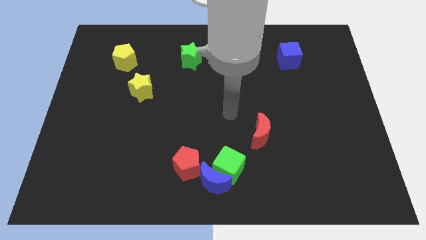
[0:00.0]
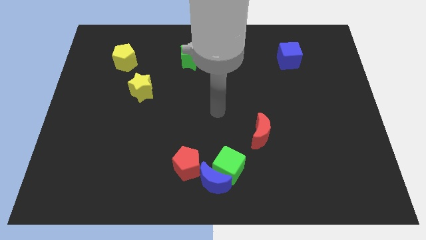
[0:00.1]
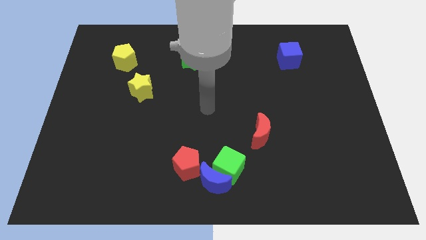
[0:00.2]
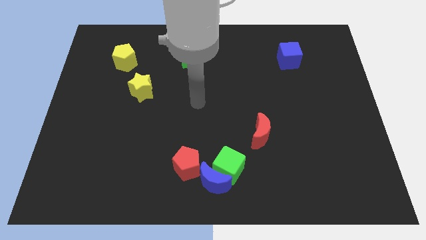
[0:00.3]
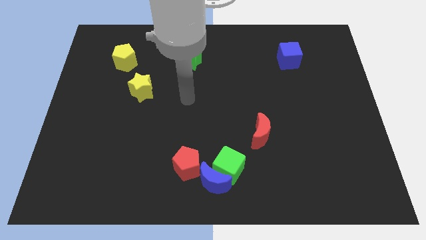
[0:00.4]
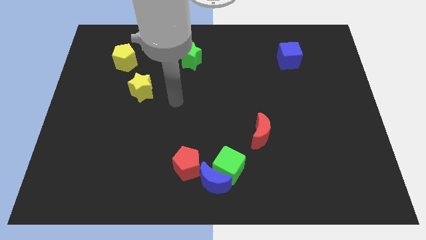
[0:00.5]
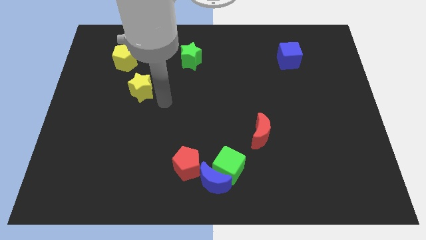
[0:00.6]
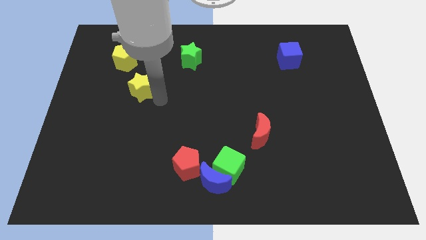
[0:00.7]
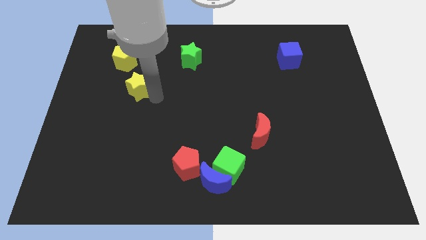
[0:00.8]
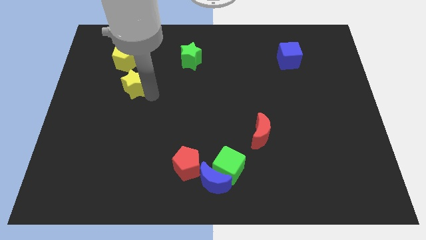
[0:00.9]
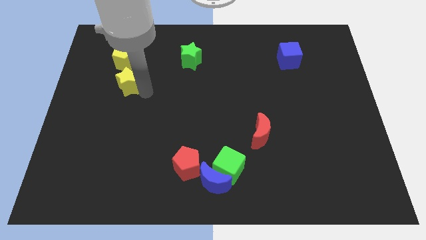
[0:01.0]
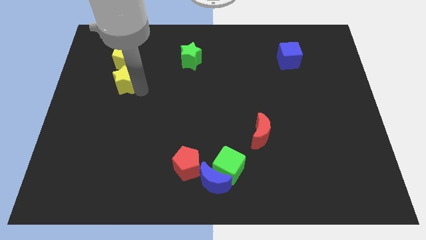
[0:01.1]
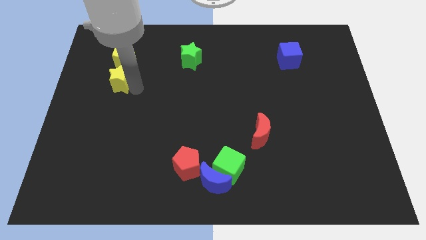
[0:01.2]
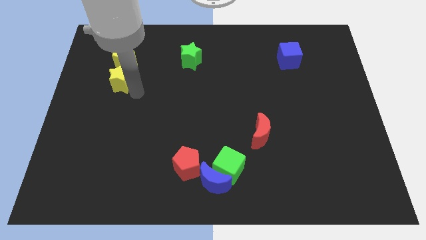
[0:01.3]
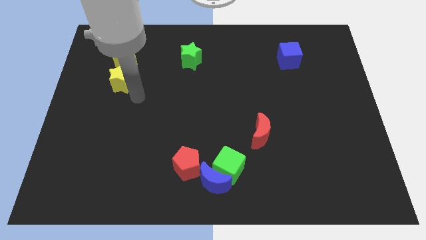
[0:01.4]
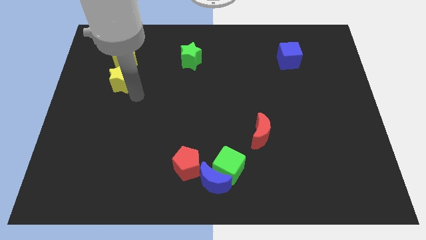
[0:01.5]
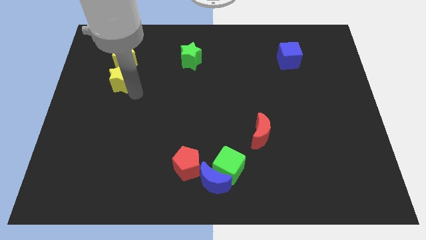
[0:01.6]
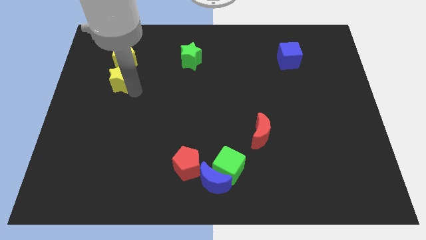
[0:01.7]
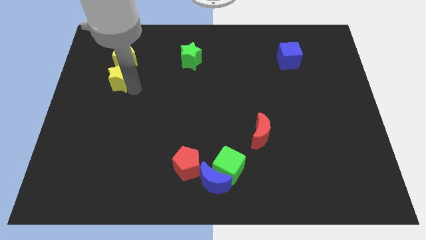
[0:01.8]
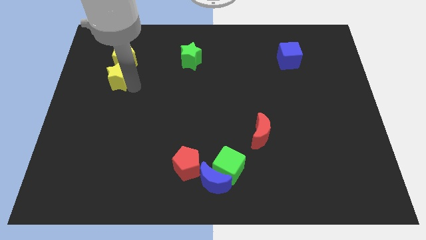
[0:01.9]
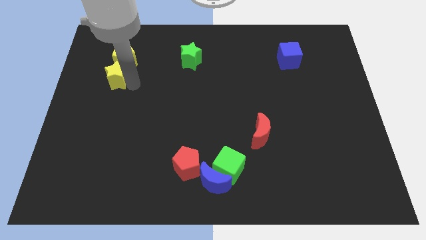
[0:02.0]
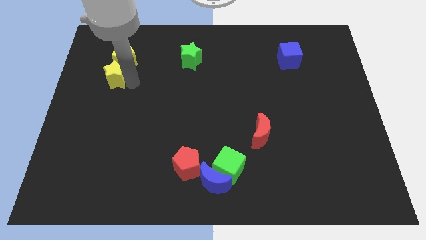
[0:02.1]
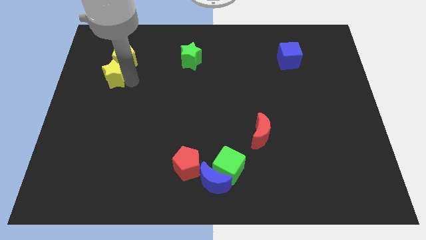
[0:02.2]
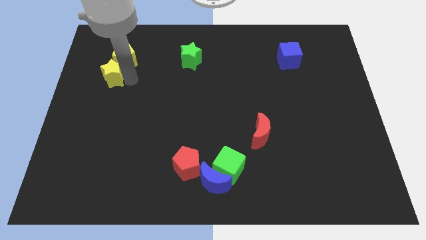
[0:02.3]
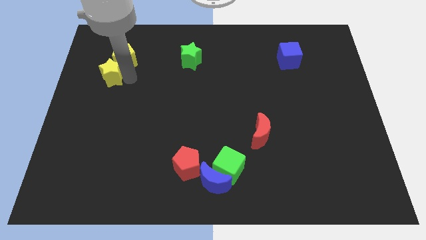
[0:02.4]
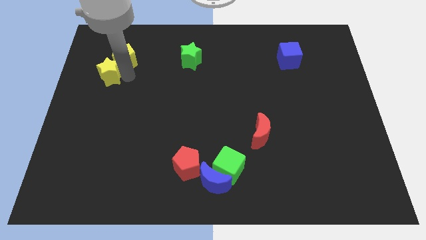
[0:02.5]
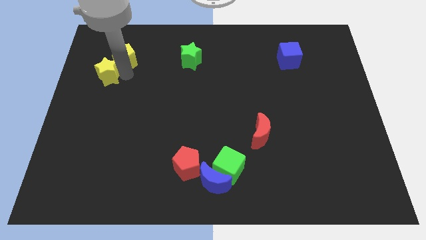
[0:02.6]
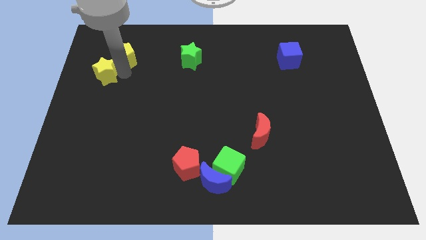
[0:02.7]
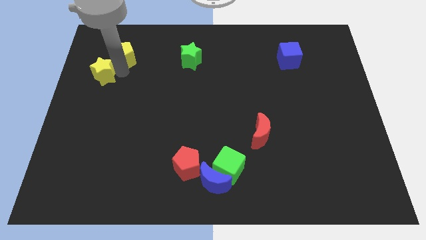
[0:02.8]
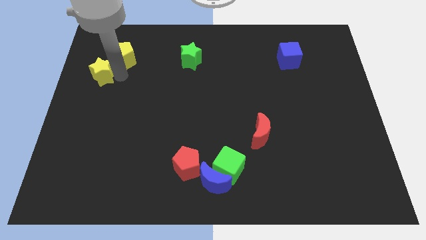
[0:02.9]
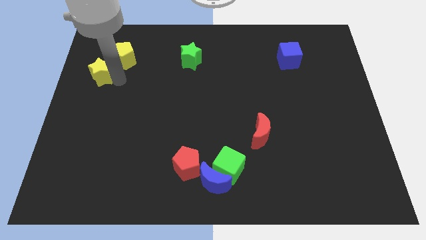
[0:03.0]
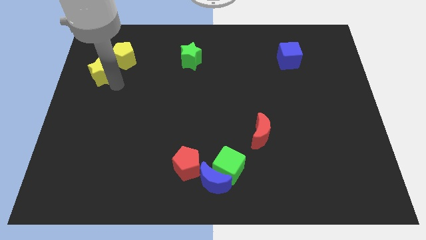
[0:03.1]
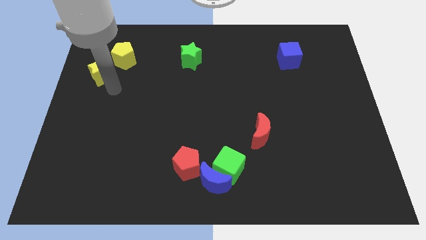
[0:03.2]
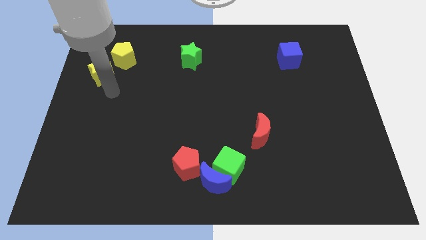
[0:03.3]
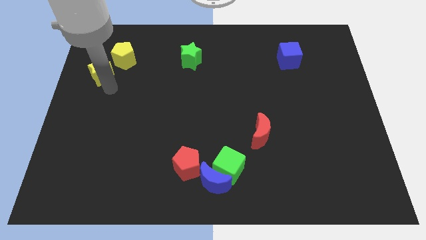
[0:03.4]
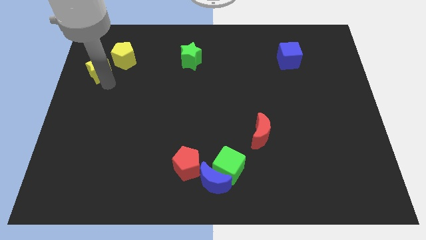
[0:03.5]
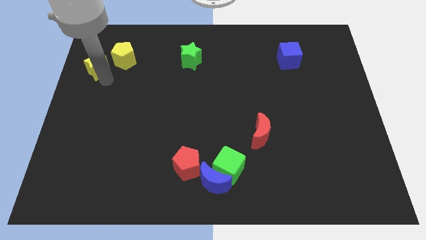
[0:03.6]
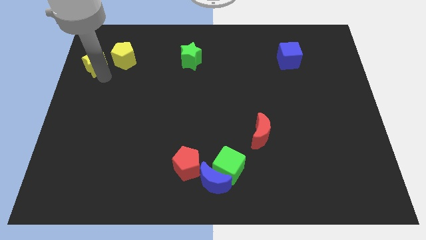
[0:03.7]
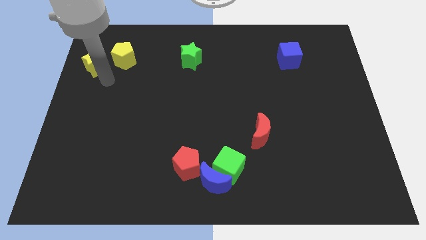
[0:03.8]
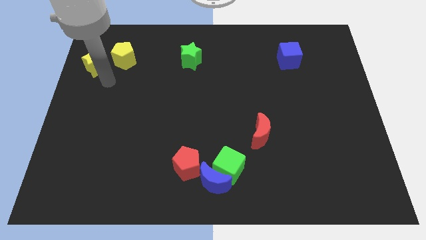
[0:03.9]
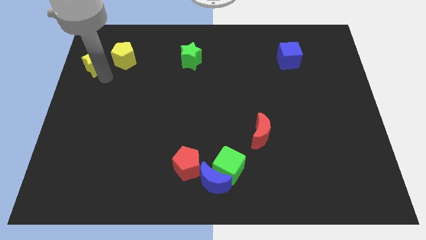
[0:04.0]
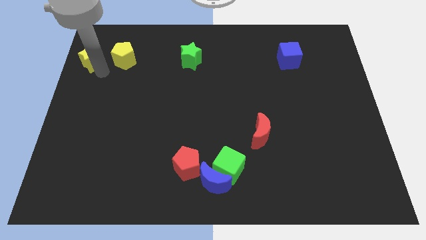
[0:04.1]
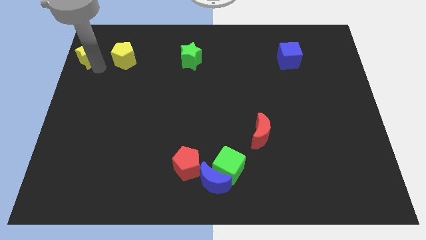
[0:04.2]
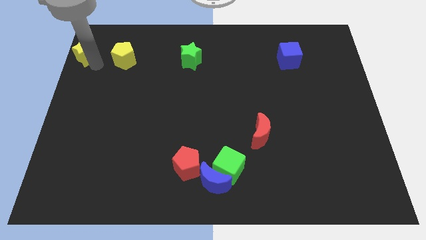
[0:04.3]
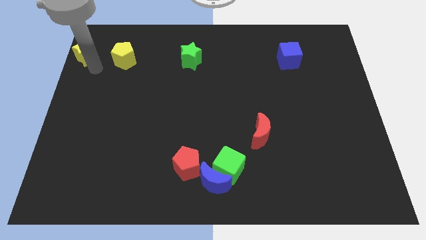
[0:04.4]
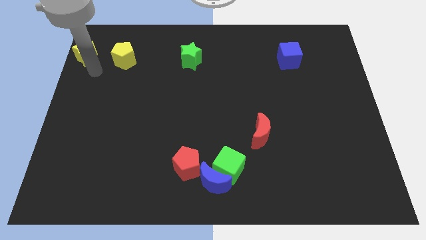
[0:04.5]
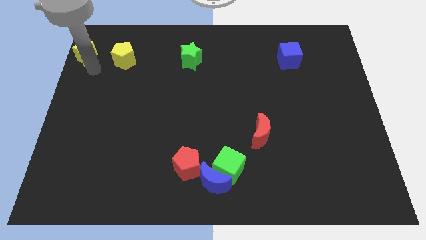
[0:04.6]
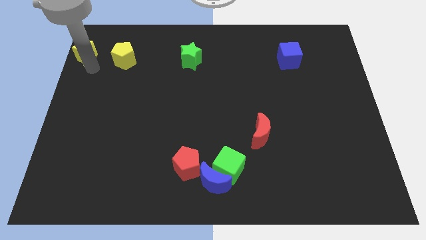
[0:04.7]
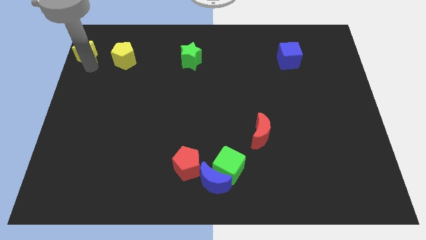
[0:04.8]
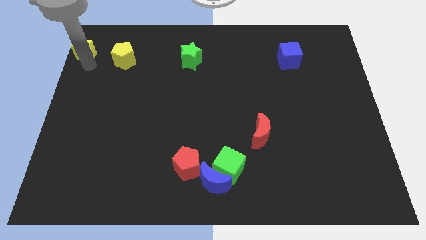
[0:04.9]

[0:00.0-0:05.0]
slide the yellow star to the top left

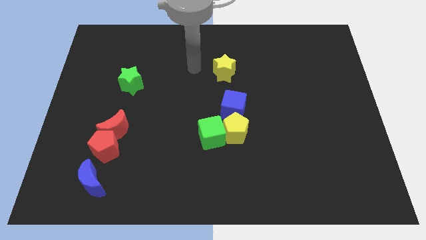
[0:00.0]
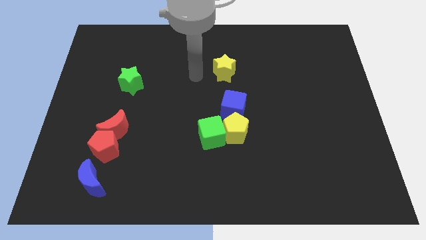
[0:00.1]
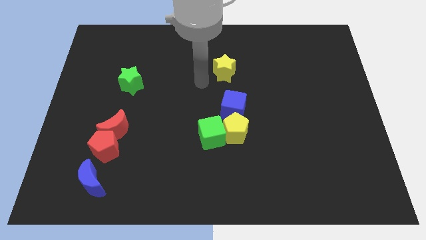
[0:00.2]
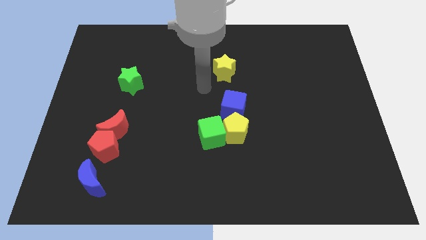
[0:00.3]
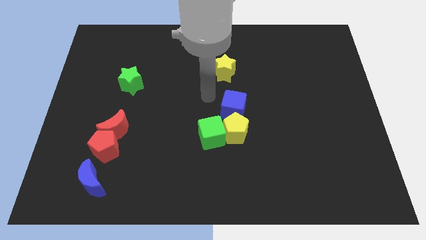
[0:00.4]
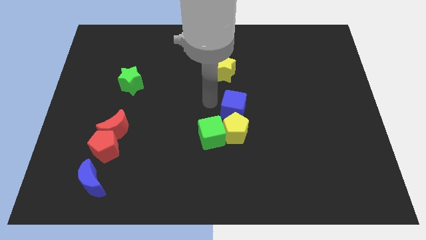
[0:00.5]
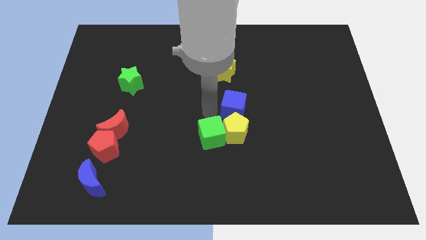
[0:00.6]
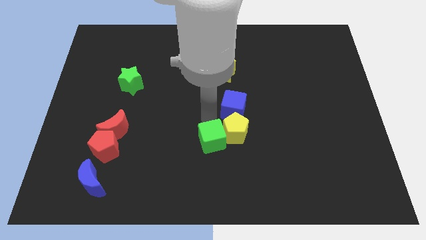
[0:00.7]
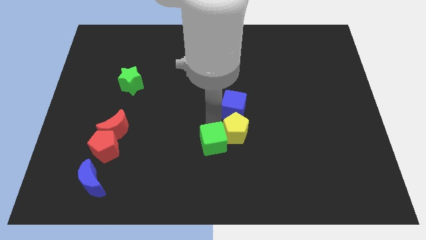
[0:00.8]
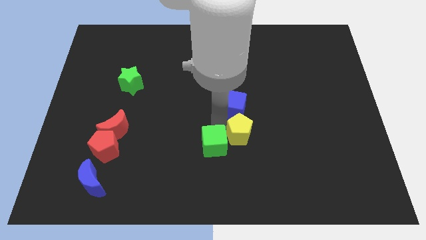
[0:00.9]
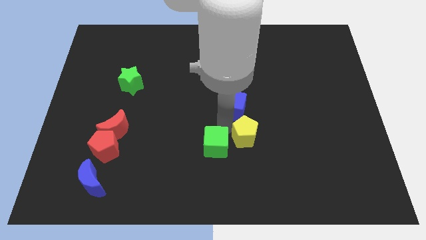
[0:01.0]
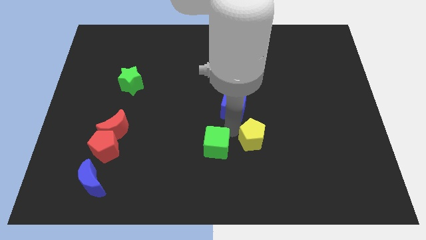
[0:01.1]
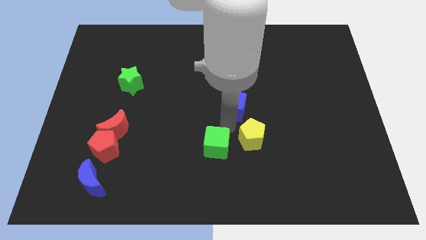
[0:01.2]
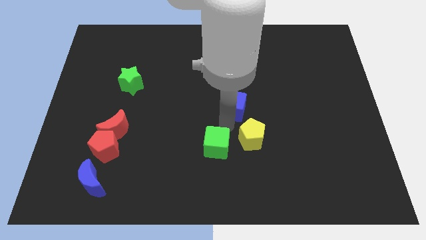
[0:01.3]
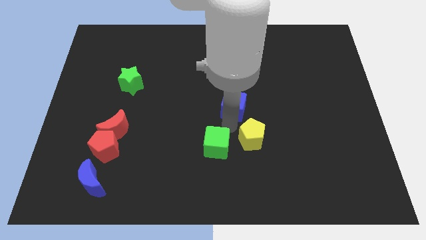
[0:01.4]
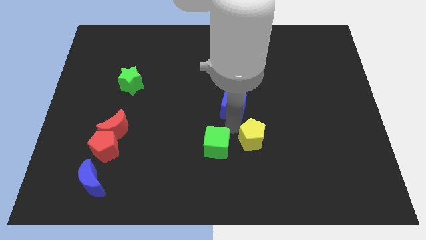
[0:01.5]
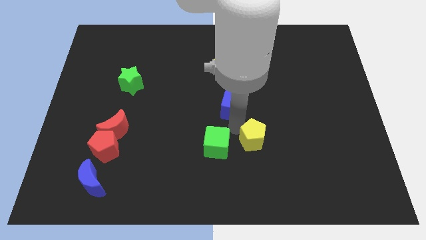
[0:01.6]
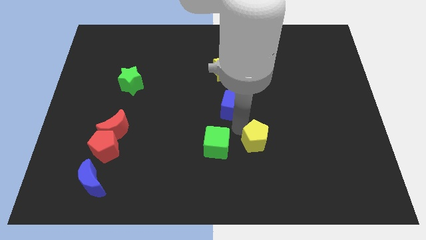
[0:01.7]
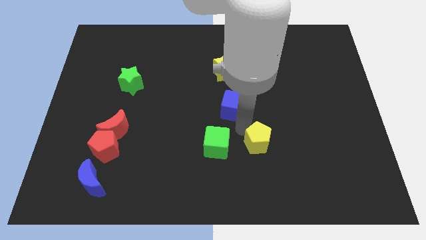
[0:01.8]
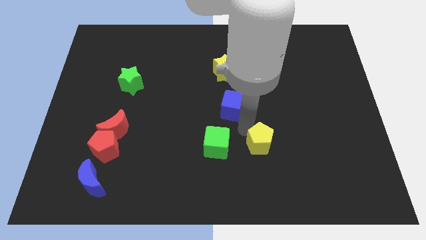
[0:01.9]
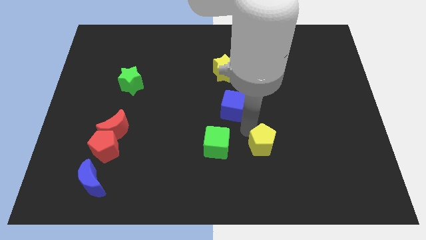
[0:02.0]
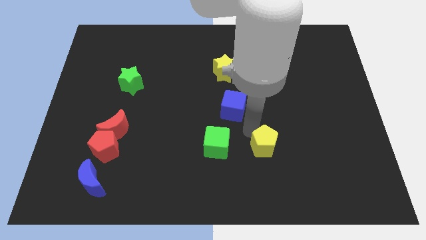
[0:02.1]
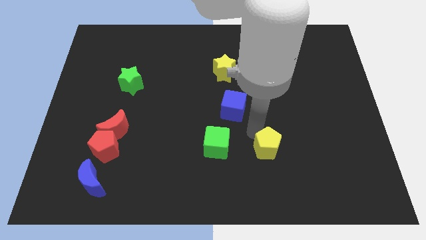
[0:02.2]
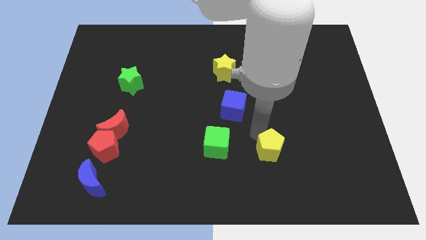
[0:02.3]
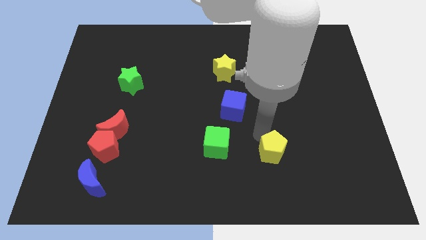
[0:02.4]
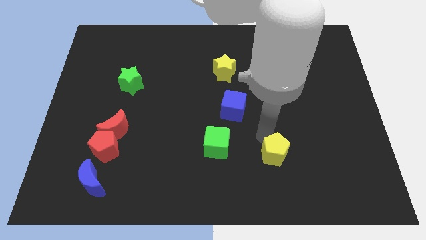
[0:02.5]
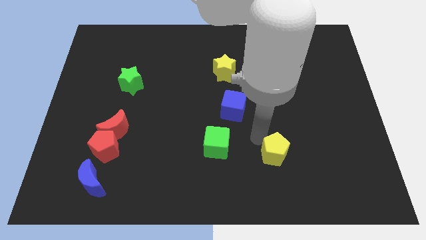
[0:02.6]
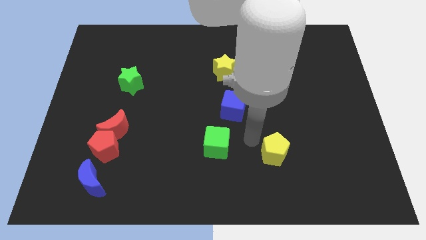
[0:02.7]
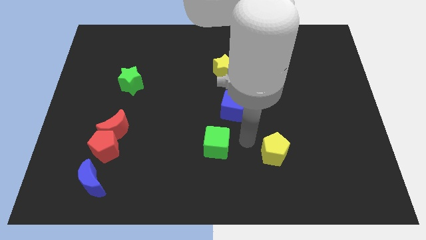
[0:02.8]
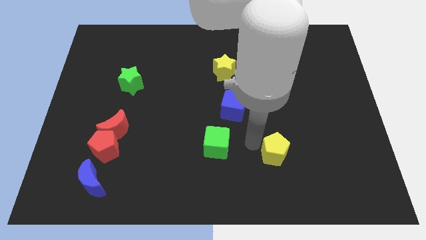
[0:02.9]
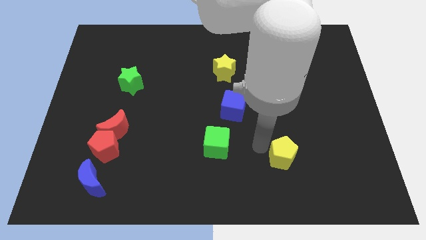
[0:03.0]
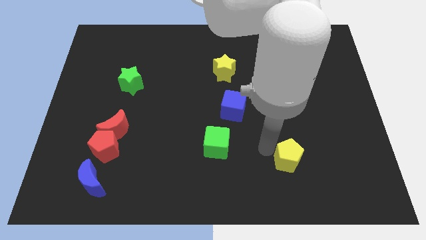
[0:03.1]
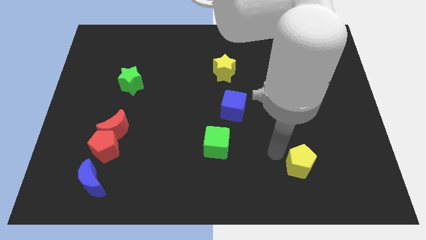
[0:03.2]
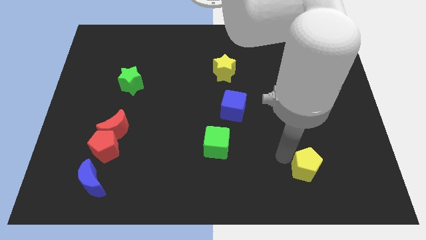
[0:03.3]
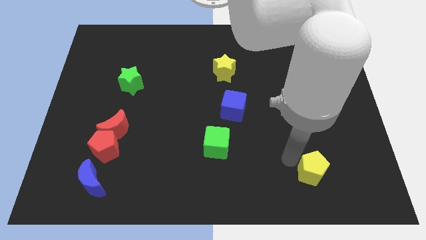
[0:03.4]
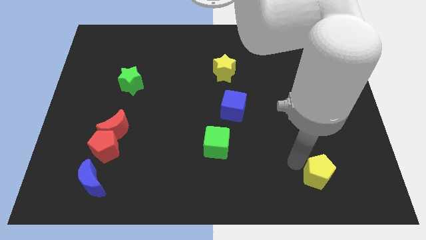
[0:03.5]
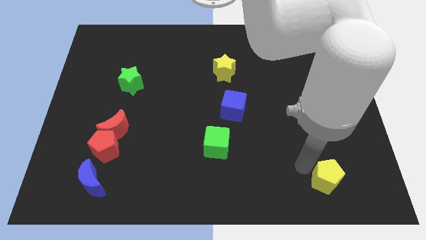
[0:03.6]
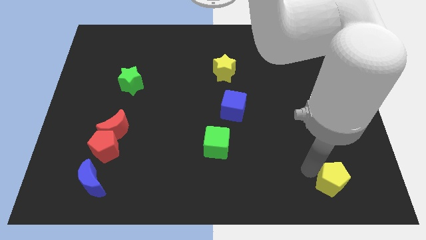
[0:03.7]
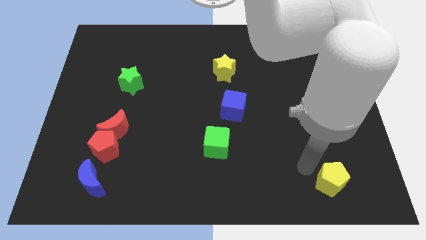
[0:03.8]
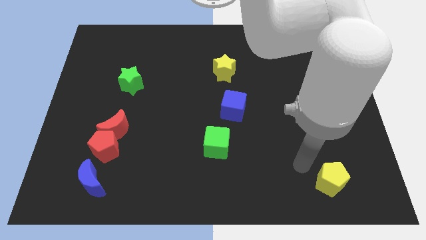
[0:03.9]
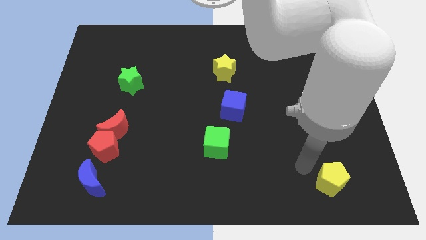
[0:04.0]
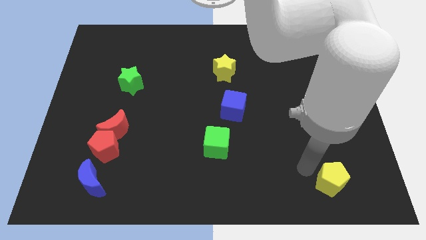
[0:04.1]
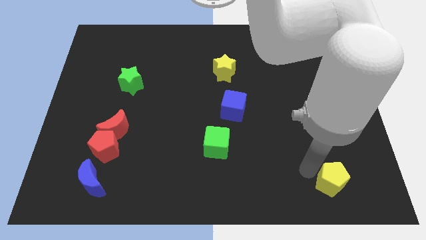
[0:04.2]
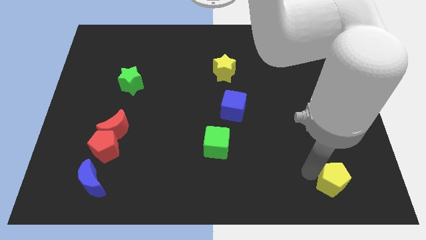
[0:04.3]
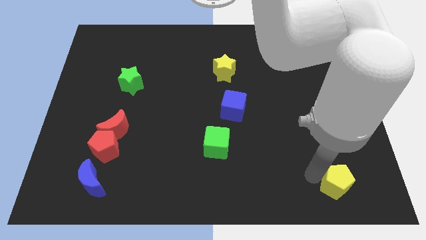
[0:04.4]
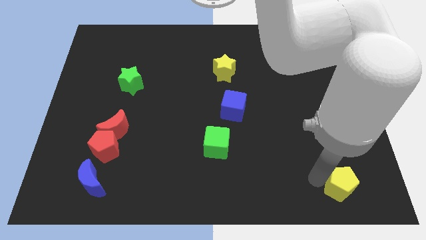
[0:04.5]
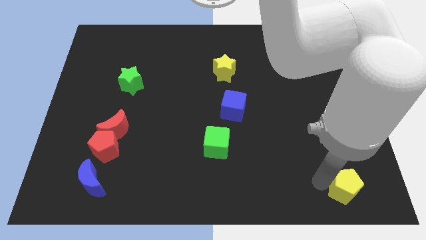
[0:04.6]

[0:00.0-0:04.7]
move the yellow pentagon to the bottom right of the board
